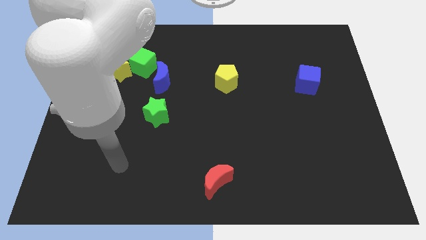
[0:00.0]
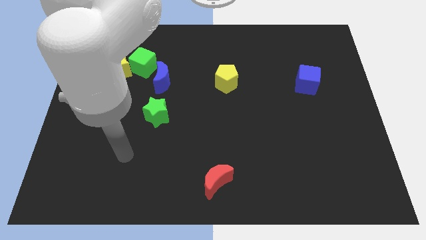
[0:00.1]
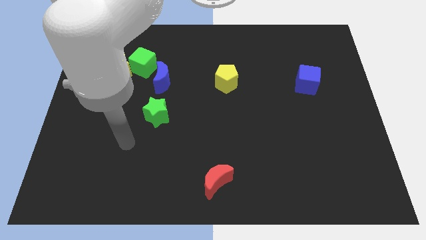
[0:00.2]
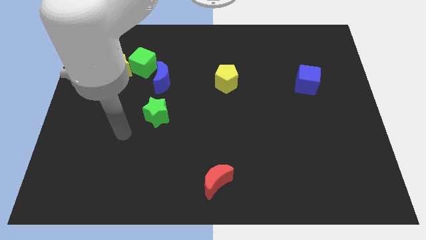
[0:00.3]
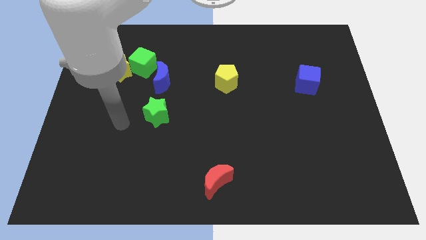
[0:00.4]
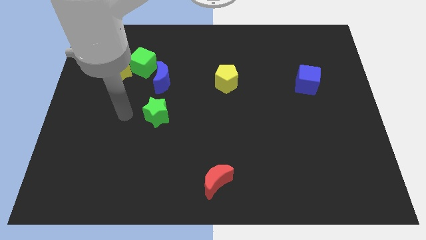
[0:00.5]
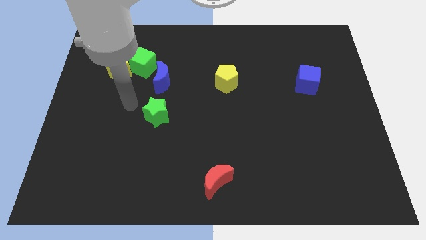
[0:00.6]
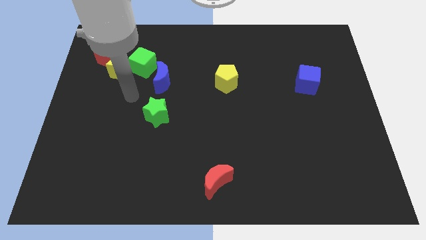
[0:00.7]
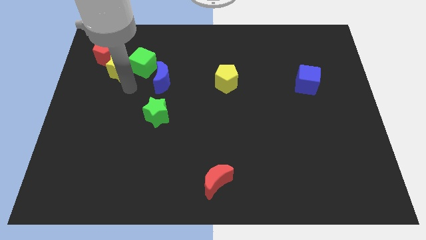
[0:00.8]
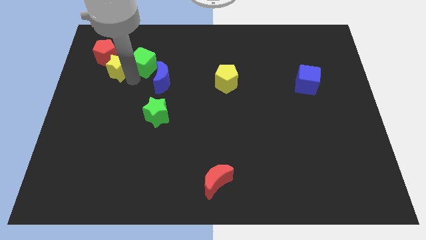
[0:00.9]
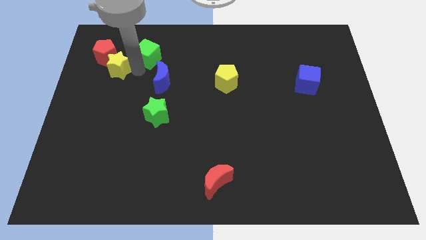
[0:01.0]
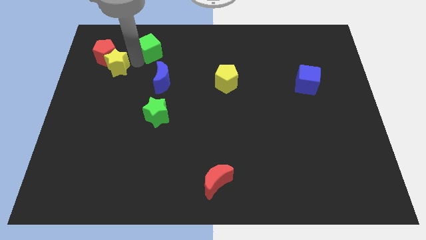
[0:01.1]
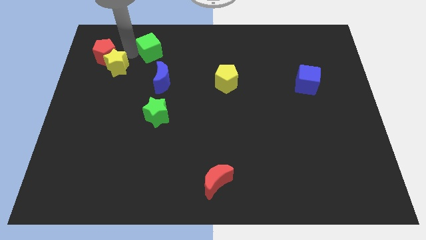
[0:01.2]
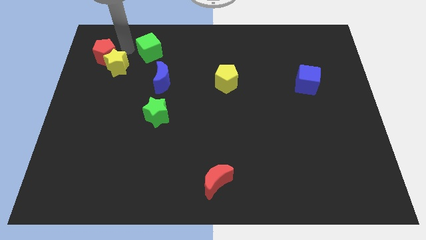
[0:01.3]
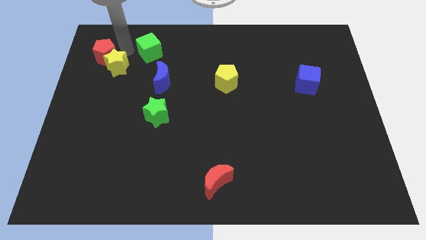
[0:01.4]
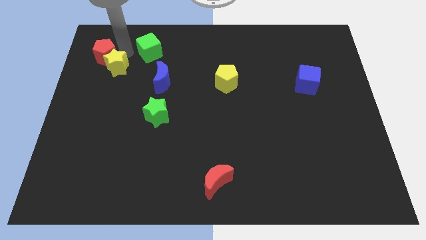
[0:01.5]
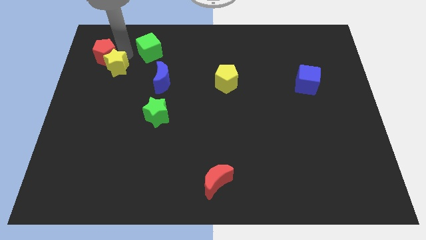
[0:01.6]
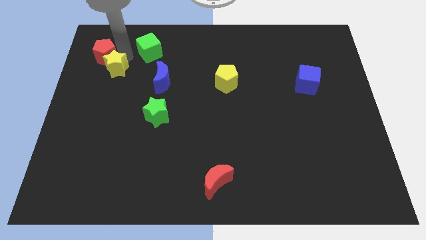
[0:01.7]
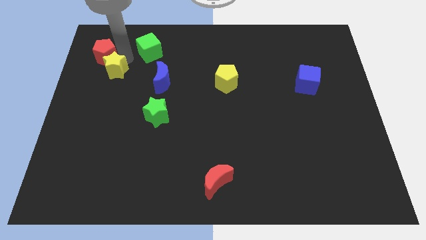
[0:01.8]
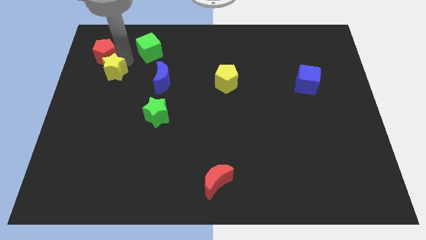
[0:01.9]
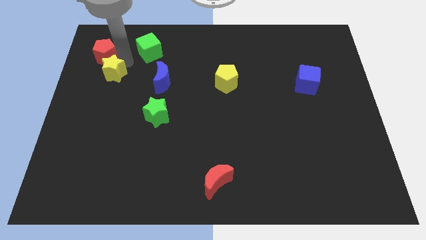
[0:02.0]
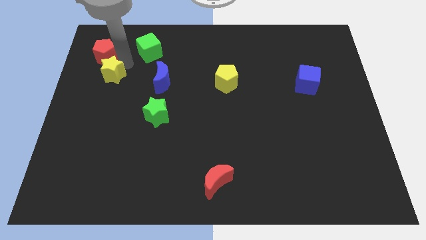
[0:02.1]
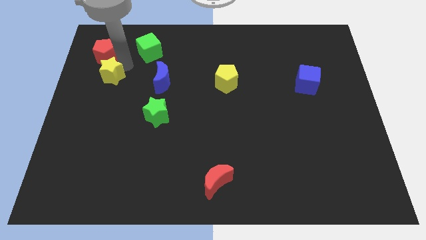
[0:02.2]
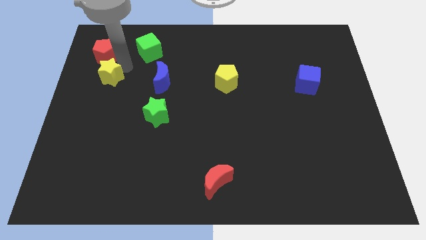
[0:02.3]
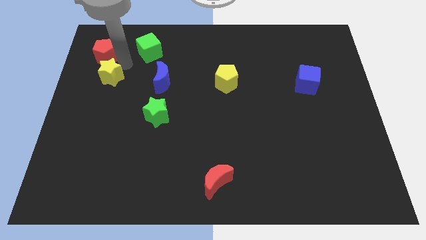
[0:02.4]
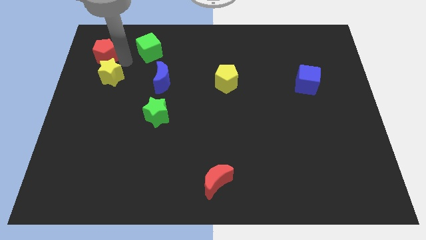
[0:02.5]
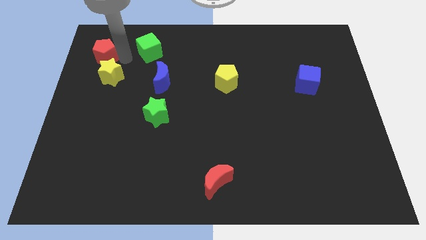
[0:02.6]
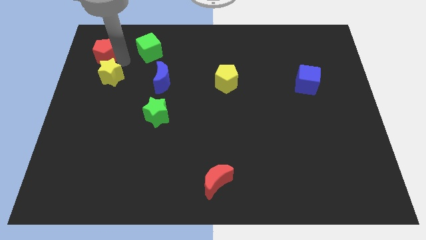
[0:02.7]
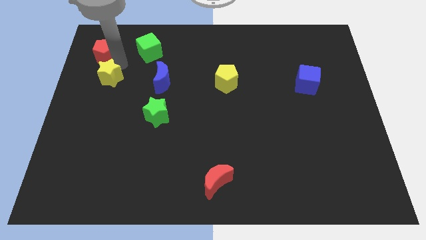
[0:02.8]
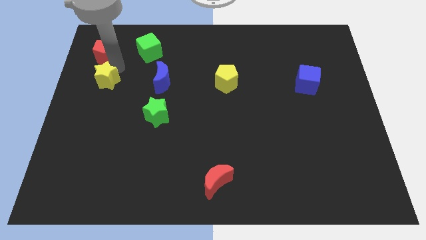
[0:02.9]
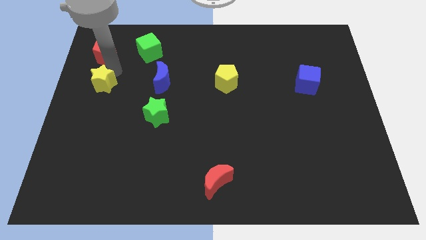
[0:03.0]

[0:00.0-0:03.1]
pull the yellow star apart from the green cube and red pentagon

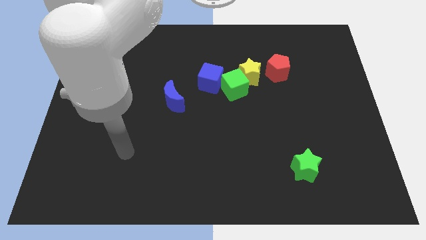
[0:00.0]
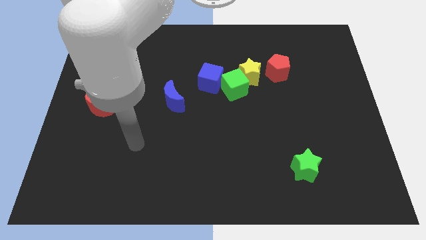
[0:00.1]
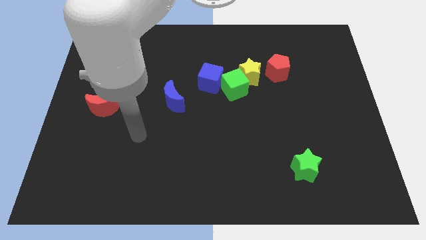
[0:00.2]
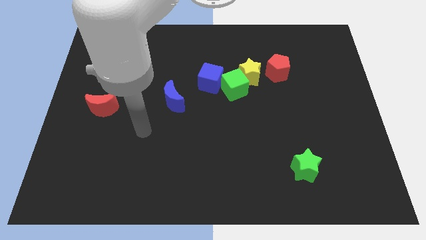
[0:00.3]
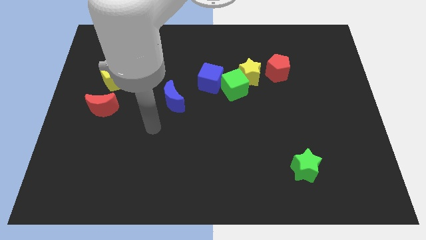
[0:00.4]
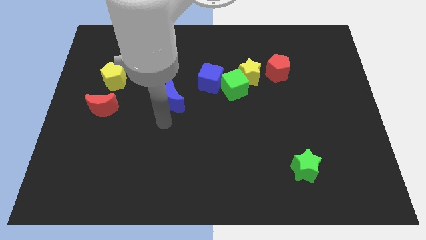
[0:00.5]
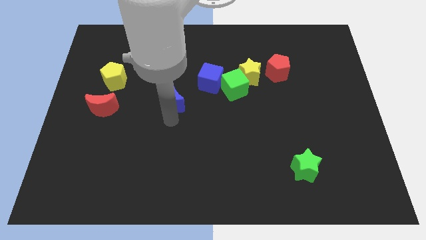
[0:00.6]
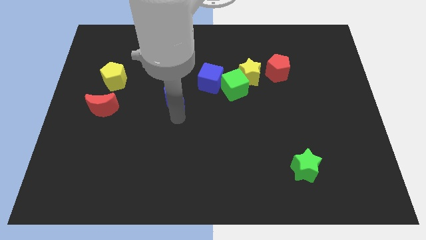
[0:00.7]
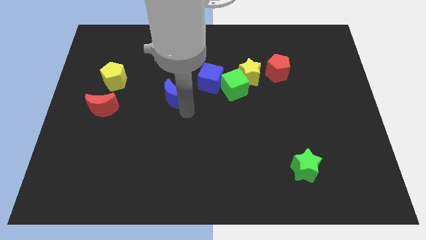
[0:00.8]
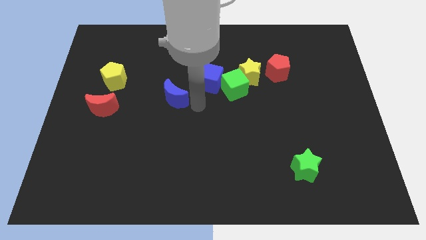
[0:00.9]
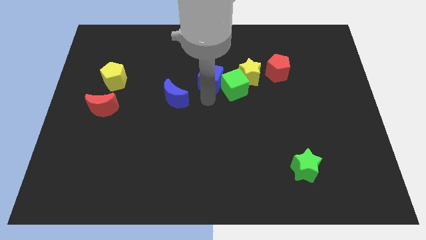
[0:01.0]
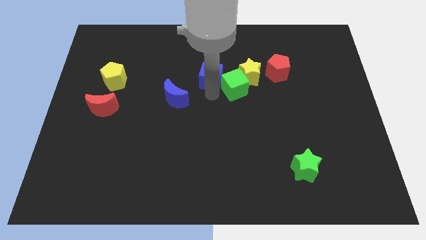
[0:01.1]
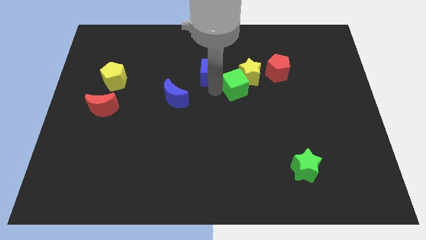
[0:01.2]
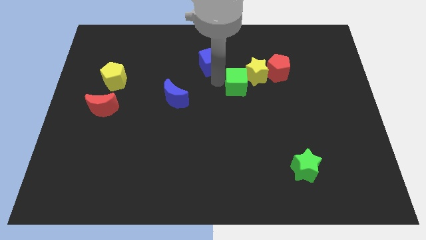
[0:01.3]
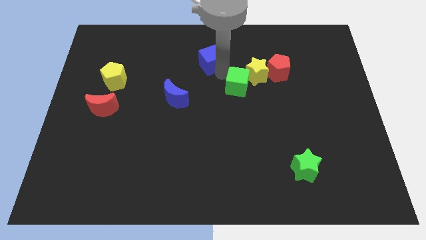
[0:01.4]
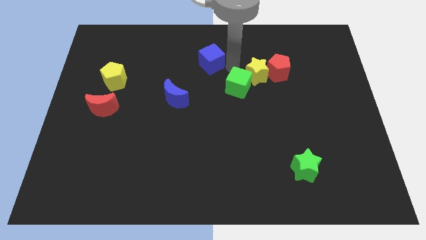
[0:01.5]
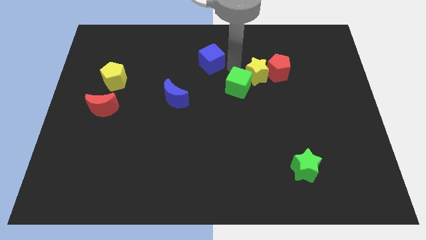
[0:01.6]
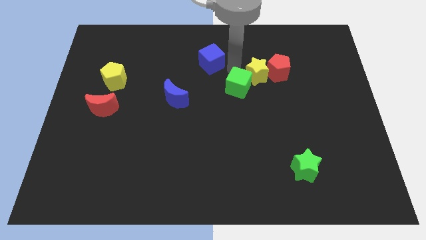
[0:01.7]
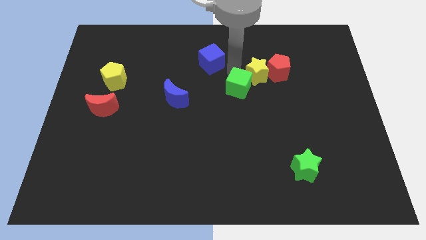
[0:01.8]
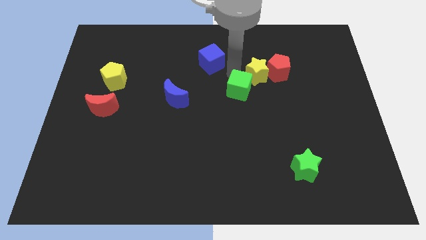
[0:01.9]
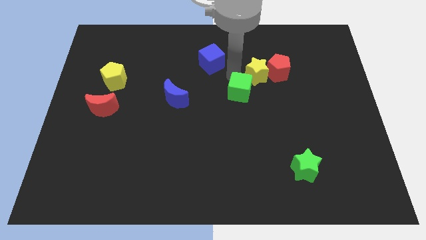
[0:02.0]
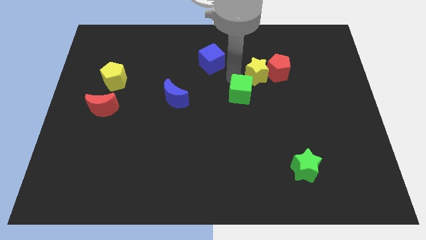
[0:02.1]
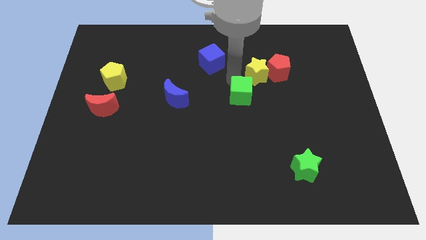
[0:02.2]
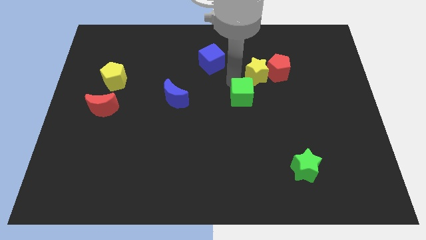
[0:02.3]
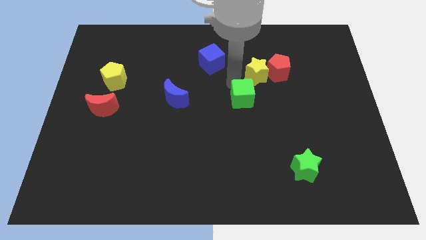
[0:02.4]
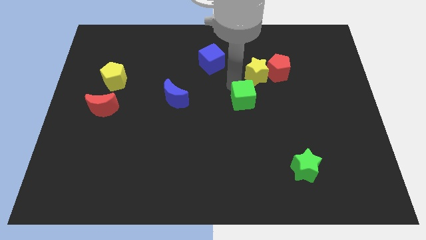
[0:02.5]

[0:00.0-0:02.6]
pull the green cube apart from the yellow star and blue cube

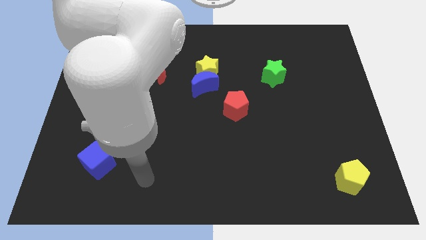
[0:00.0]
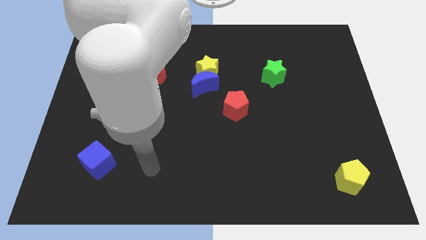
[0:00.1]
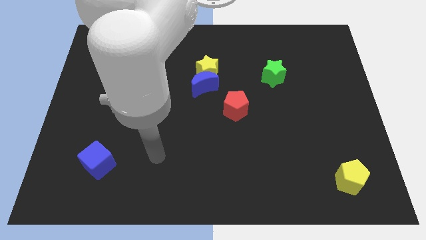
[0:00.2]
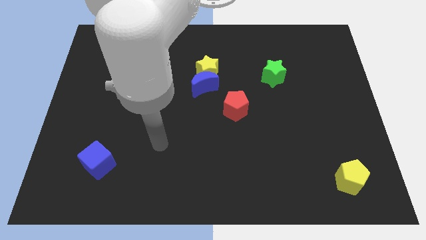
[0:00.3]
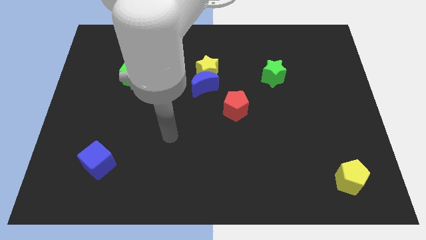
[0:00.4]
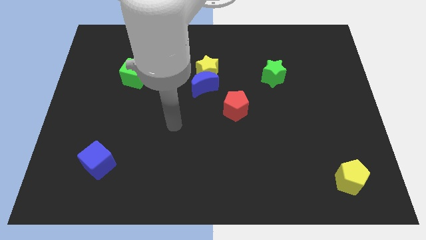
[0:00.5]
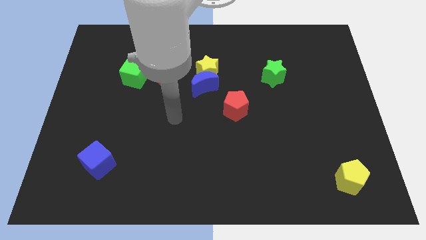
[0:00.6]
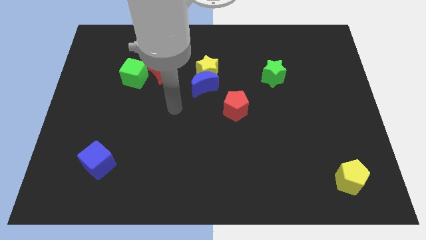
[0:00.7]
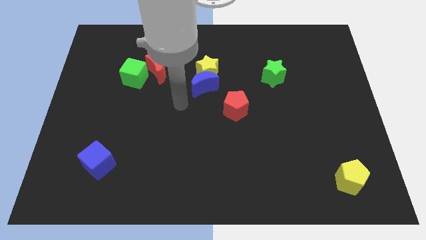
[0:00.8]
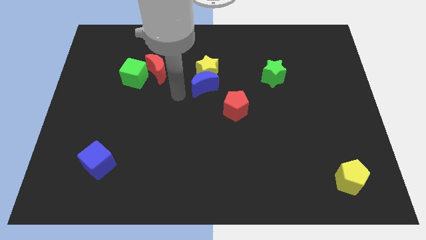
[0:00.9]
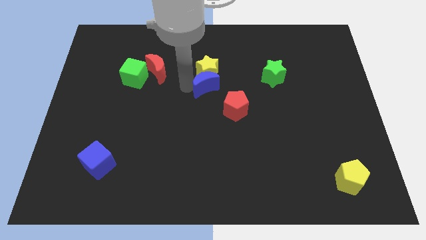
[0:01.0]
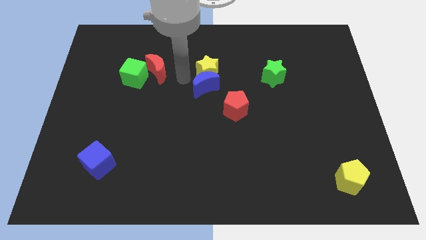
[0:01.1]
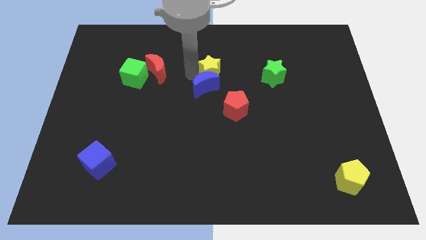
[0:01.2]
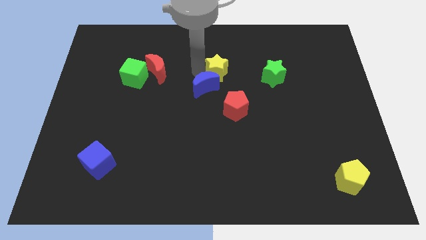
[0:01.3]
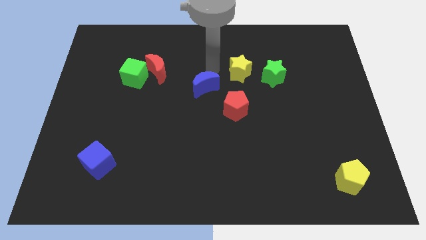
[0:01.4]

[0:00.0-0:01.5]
move the blue moon away from the yellow star

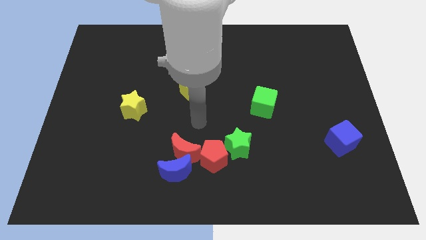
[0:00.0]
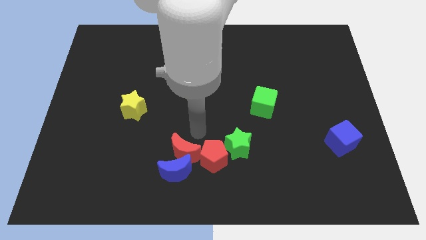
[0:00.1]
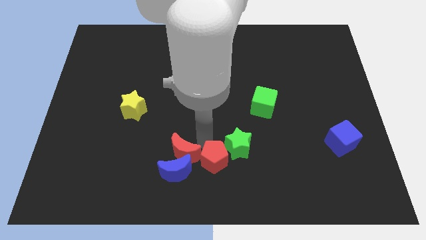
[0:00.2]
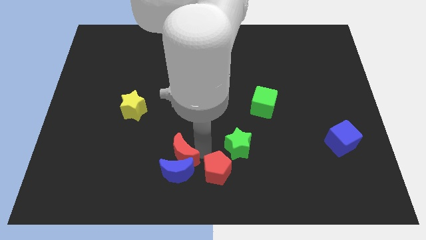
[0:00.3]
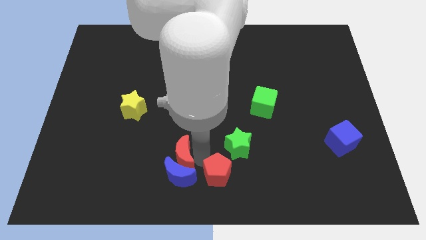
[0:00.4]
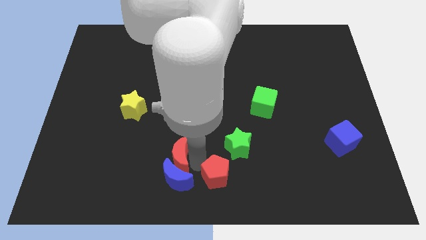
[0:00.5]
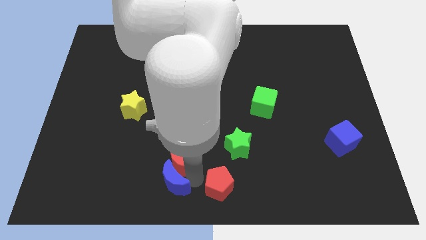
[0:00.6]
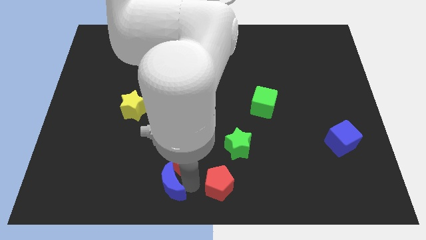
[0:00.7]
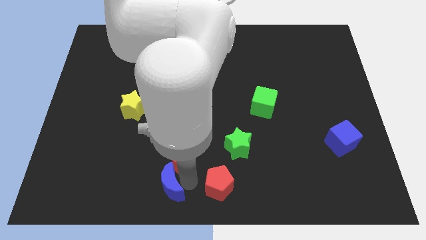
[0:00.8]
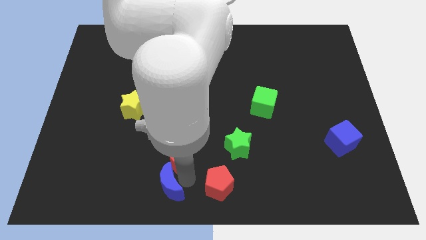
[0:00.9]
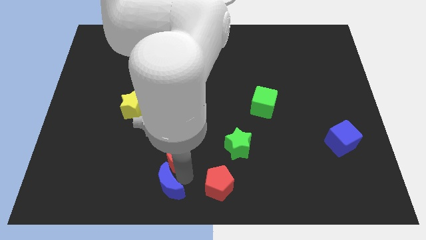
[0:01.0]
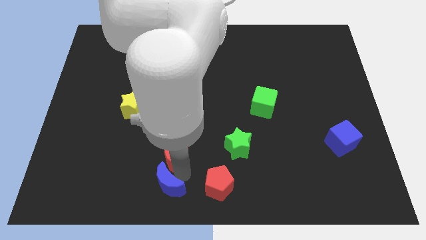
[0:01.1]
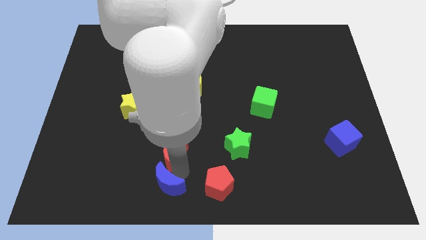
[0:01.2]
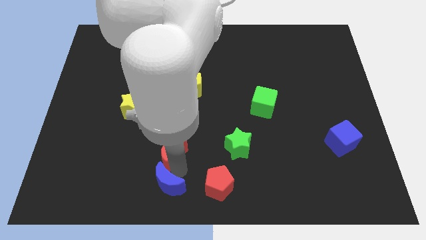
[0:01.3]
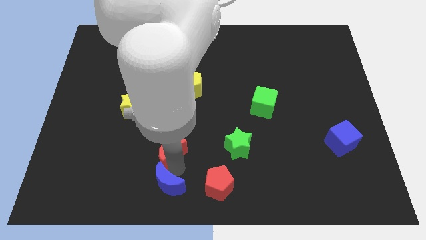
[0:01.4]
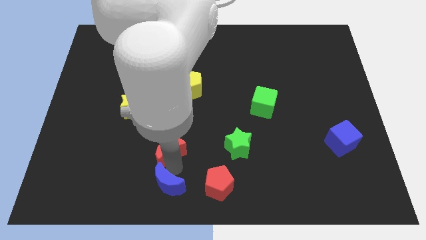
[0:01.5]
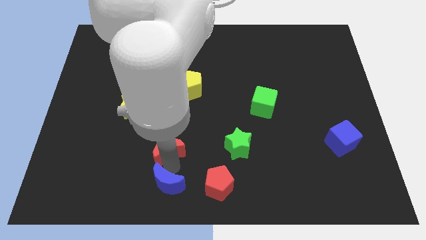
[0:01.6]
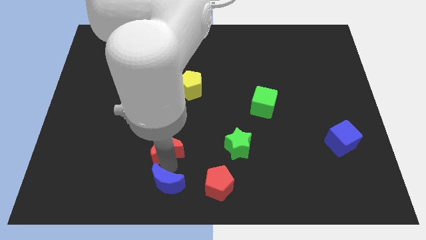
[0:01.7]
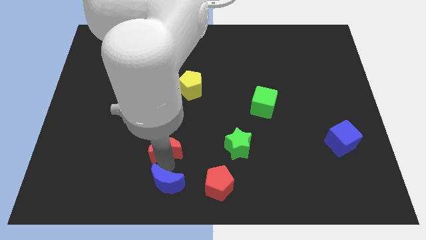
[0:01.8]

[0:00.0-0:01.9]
separate the red moon from the blue moon and red pentagon

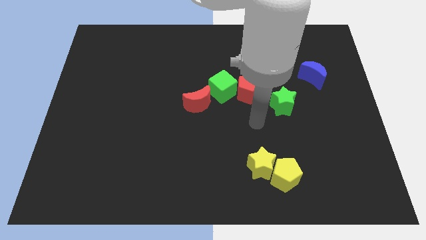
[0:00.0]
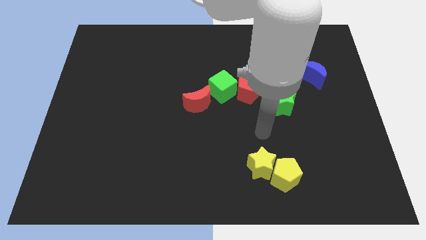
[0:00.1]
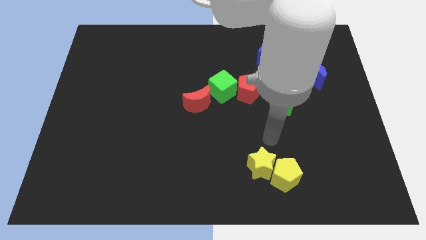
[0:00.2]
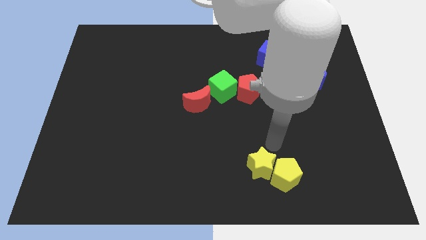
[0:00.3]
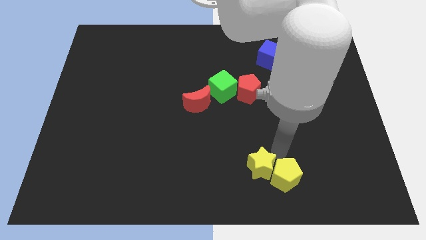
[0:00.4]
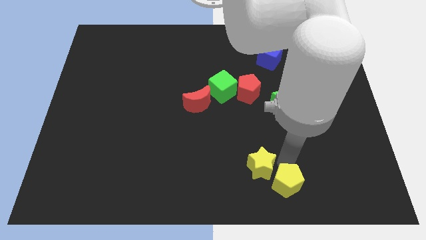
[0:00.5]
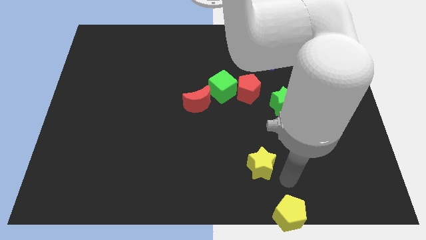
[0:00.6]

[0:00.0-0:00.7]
move the yellow star away from the yellow pentagon
